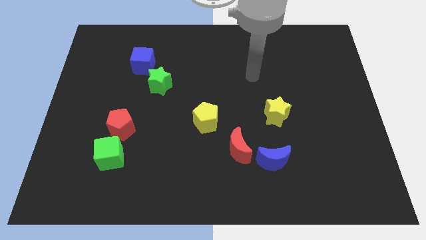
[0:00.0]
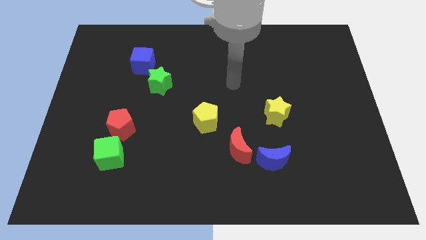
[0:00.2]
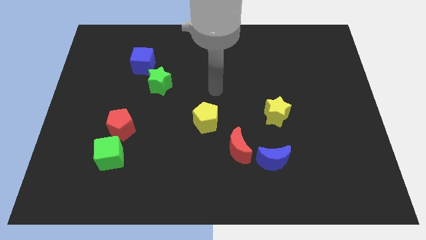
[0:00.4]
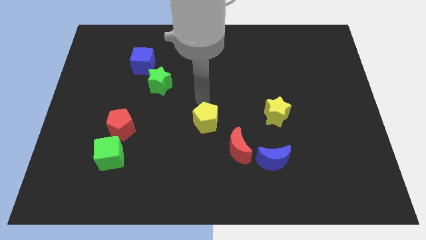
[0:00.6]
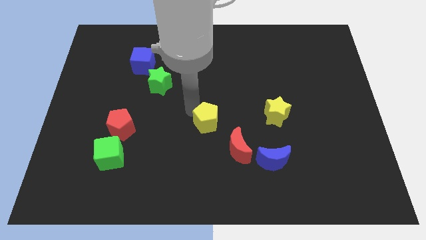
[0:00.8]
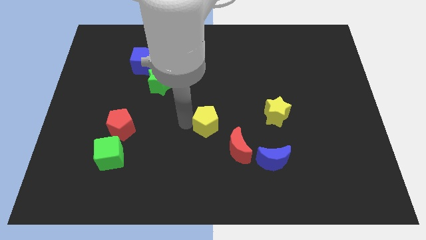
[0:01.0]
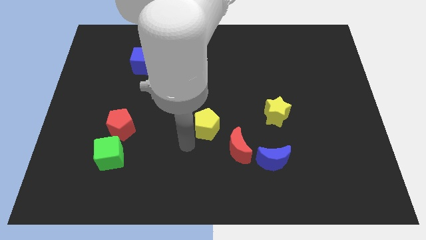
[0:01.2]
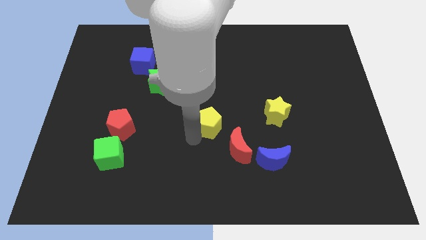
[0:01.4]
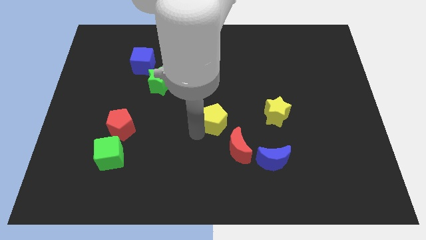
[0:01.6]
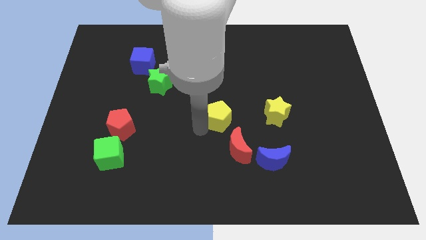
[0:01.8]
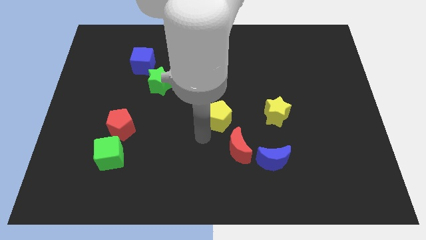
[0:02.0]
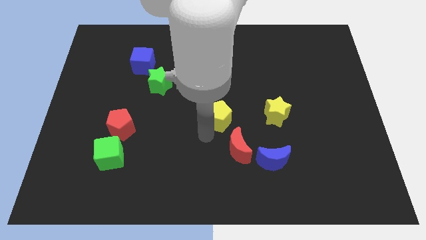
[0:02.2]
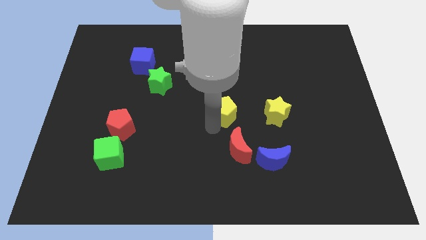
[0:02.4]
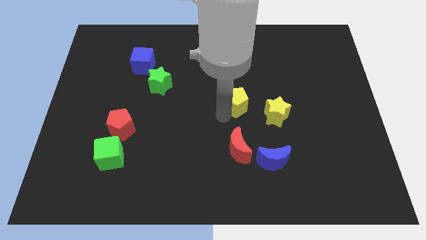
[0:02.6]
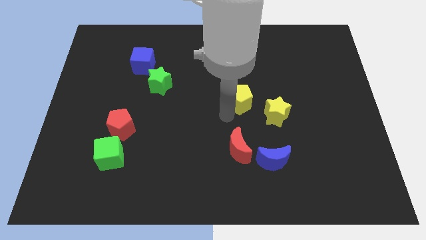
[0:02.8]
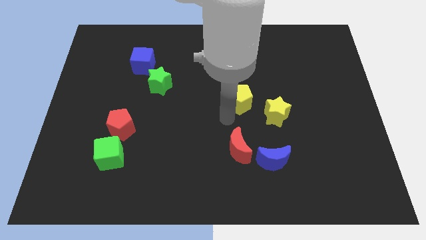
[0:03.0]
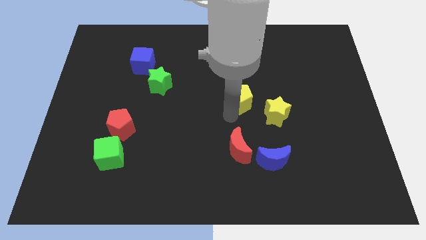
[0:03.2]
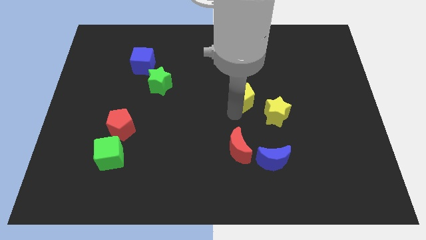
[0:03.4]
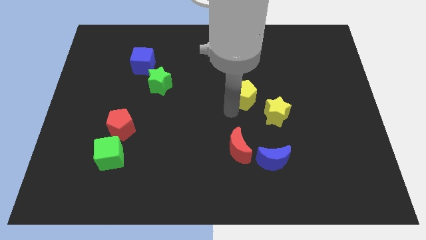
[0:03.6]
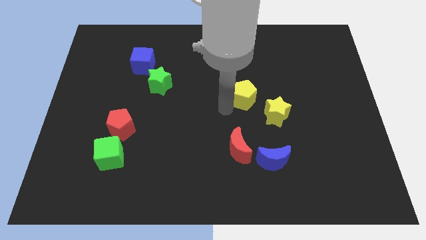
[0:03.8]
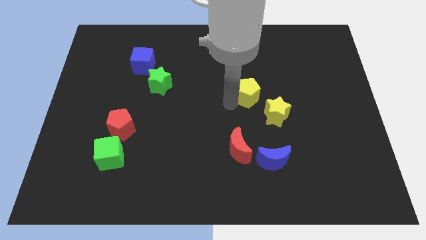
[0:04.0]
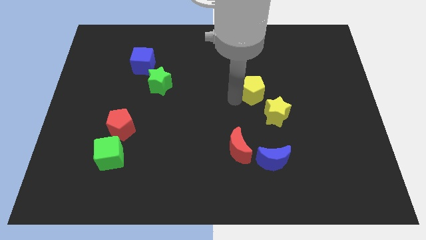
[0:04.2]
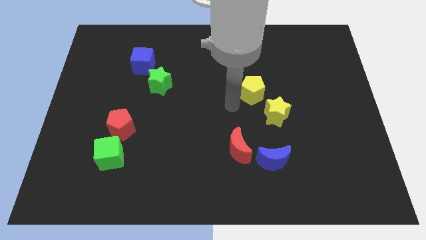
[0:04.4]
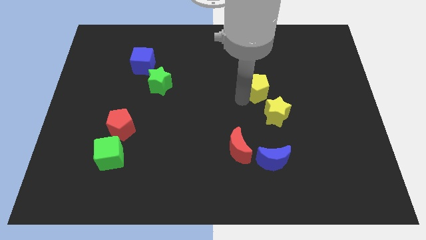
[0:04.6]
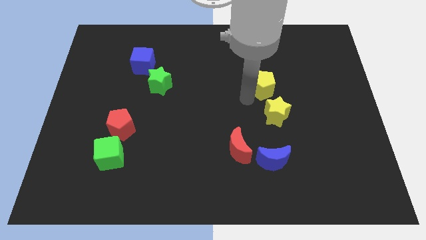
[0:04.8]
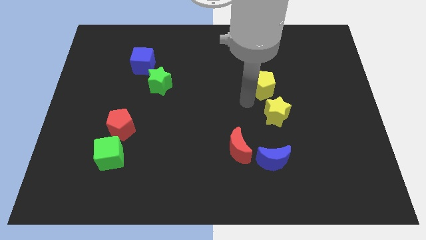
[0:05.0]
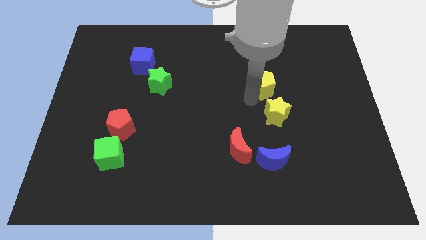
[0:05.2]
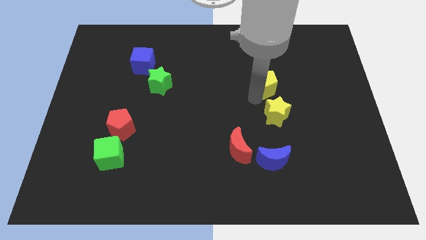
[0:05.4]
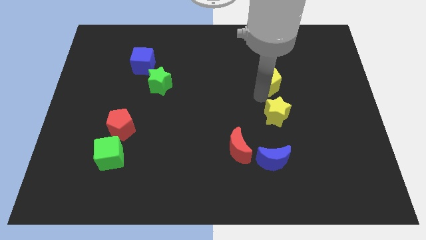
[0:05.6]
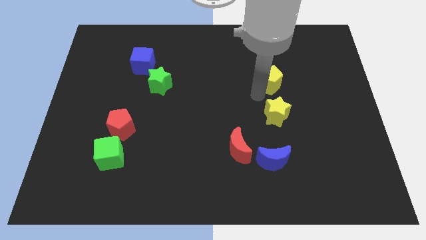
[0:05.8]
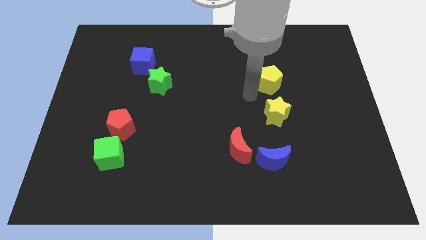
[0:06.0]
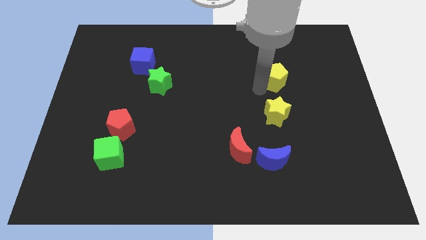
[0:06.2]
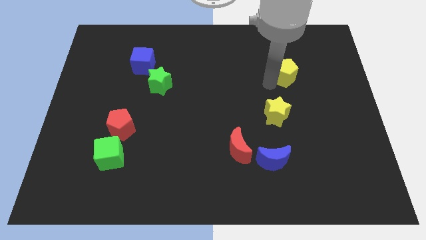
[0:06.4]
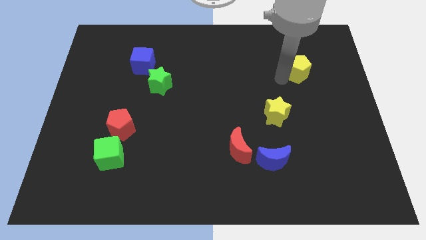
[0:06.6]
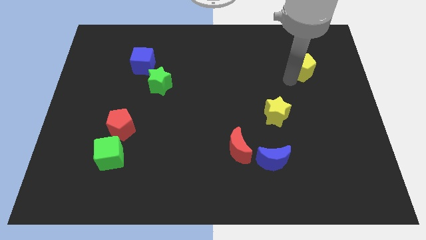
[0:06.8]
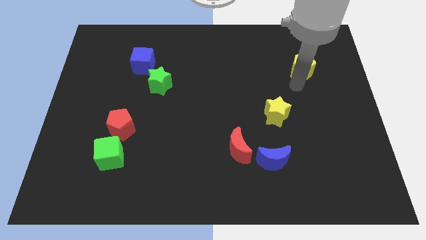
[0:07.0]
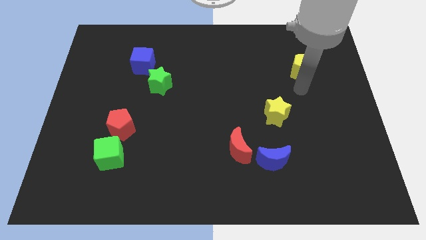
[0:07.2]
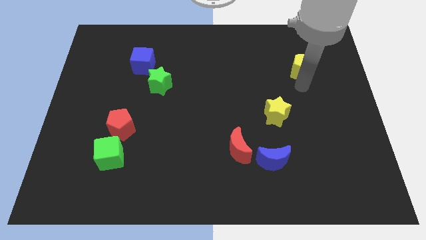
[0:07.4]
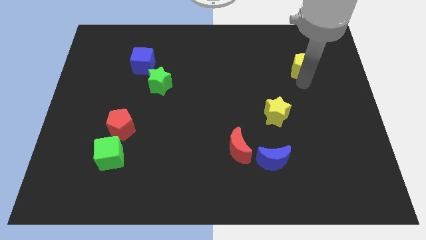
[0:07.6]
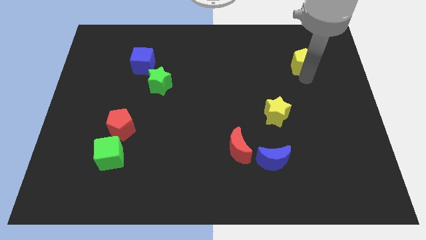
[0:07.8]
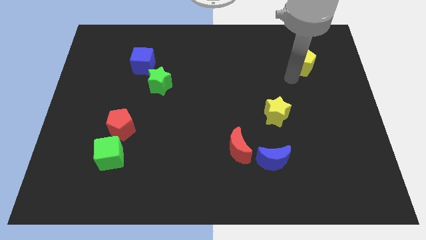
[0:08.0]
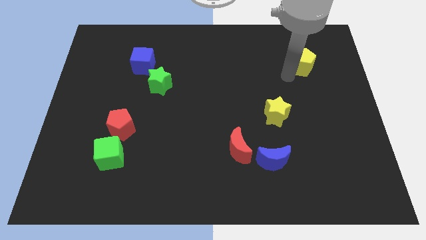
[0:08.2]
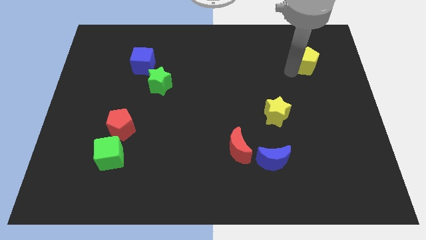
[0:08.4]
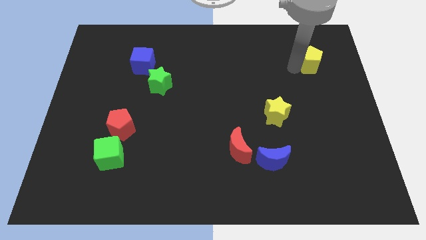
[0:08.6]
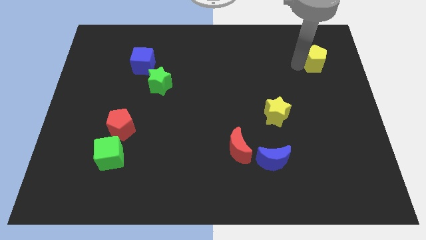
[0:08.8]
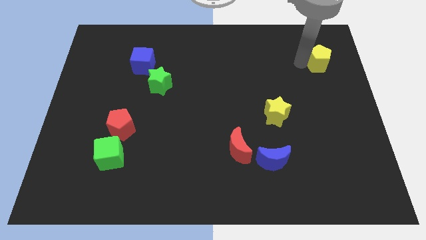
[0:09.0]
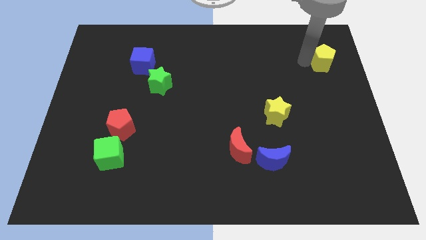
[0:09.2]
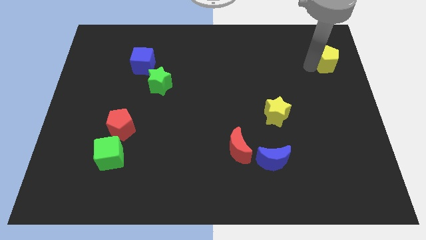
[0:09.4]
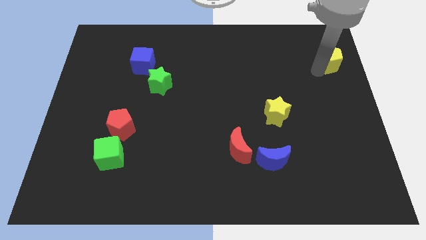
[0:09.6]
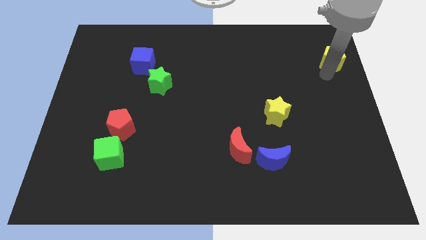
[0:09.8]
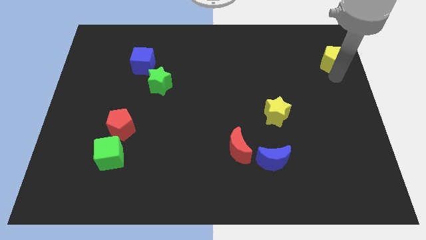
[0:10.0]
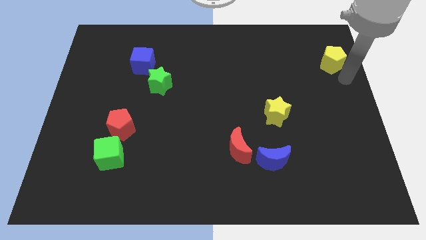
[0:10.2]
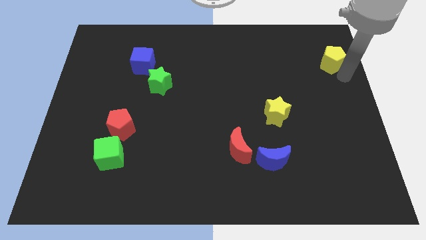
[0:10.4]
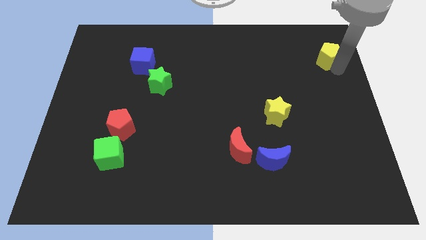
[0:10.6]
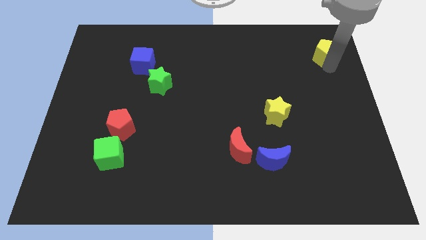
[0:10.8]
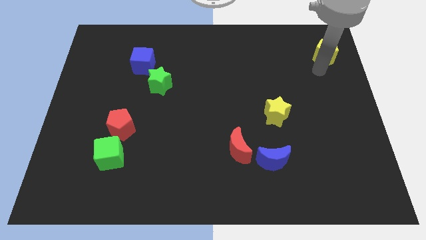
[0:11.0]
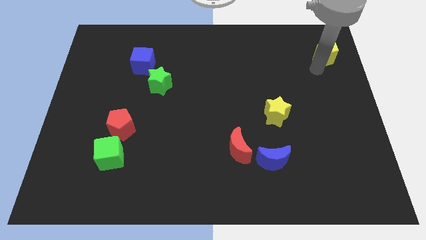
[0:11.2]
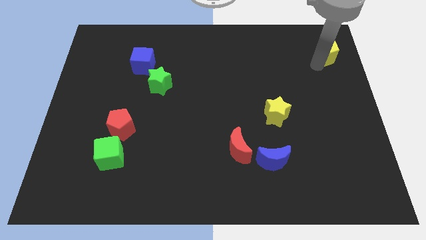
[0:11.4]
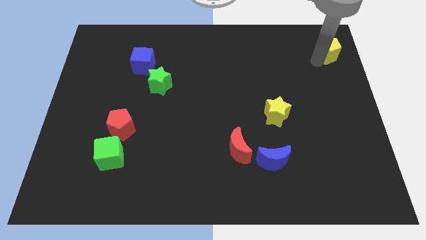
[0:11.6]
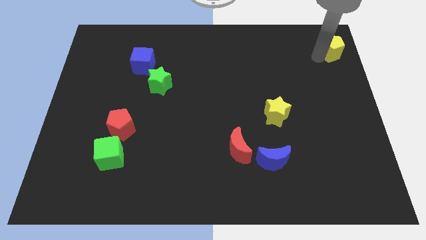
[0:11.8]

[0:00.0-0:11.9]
push the yellow pentagon to the upper right corner

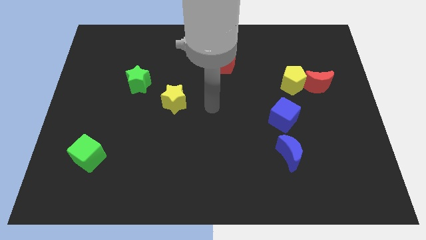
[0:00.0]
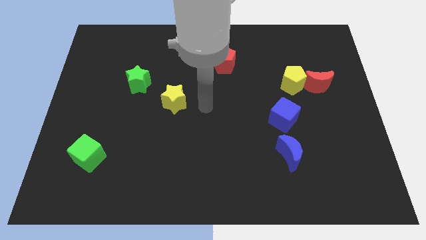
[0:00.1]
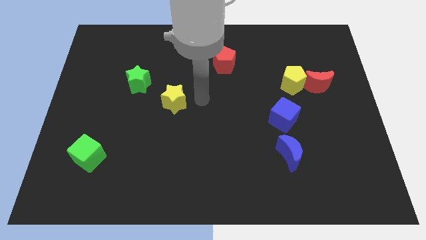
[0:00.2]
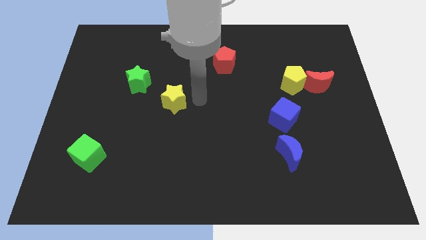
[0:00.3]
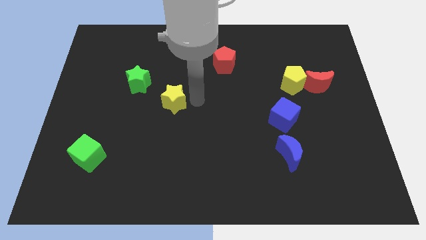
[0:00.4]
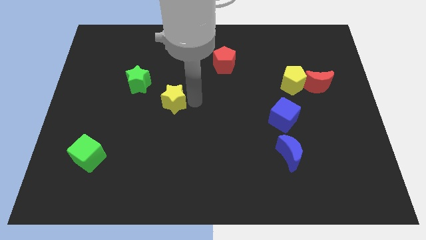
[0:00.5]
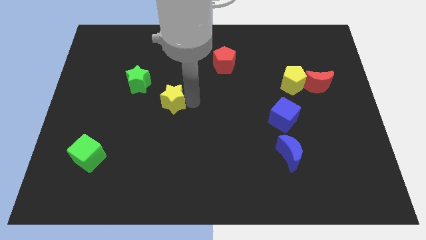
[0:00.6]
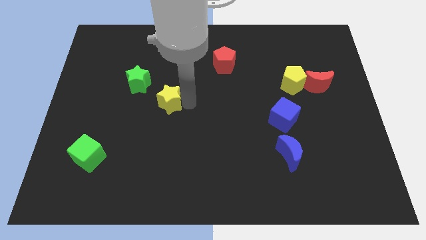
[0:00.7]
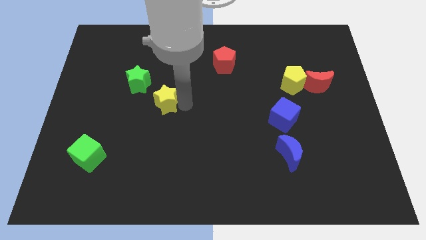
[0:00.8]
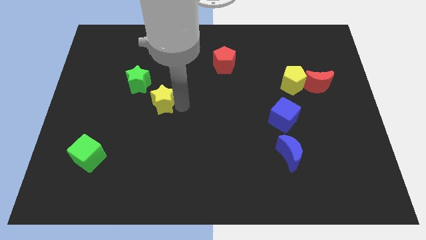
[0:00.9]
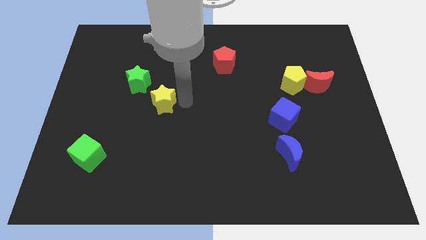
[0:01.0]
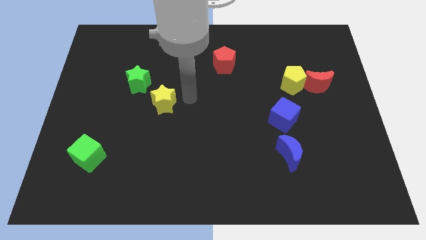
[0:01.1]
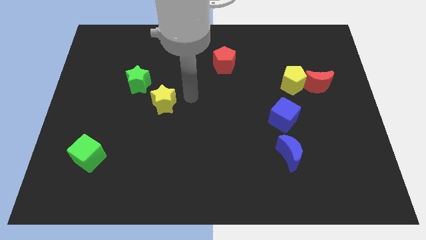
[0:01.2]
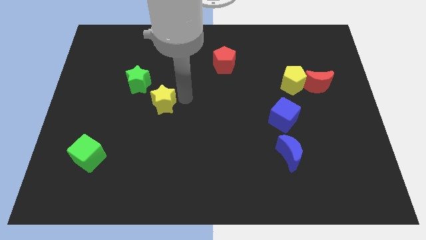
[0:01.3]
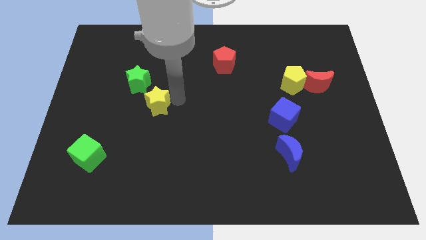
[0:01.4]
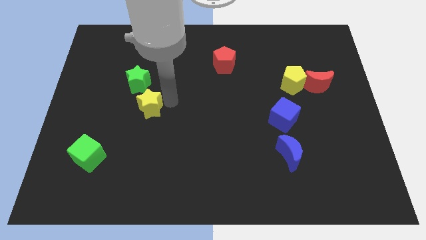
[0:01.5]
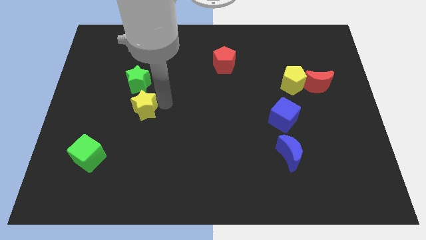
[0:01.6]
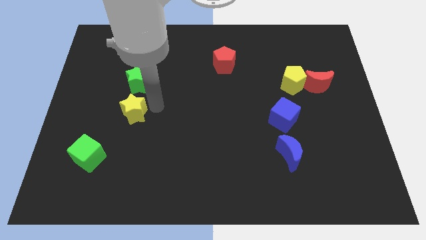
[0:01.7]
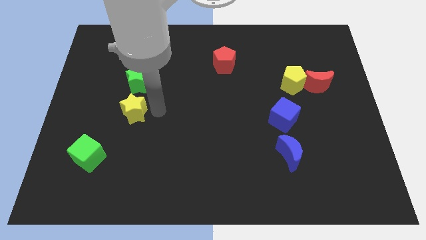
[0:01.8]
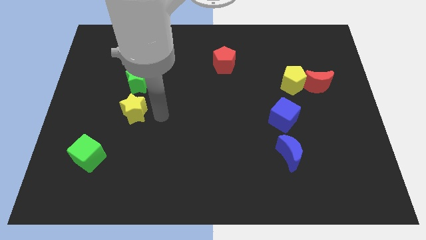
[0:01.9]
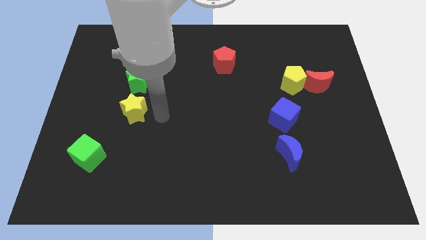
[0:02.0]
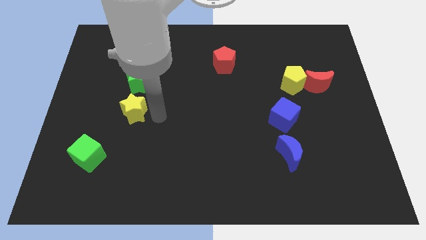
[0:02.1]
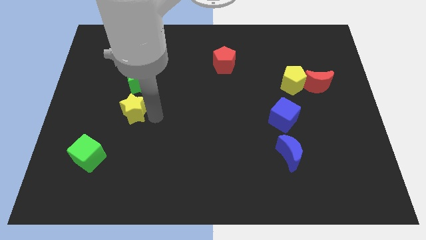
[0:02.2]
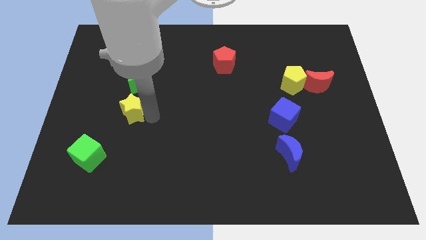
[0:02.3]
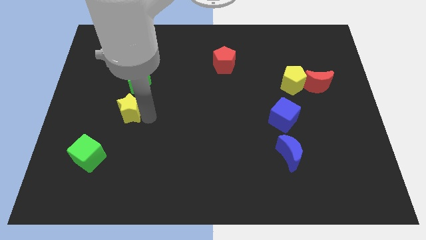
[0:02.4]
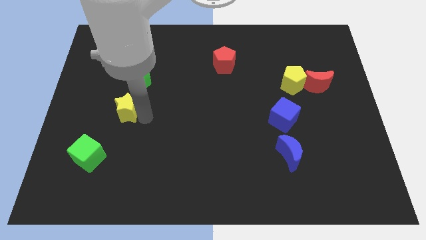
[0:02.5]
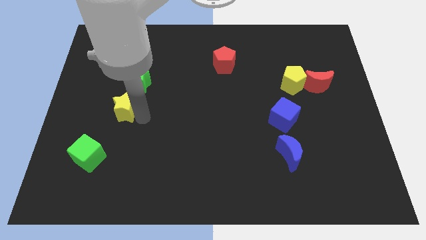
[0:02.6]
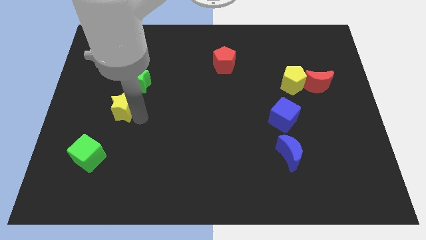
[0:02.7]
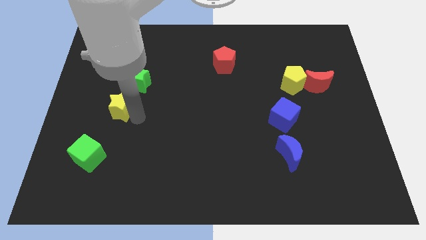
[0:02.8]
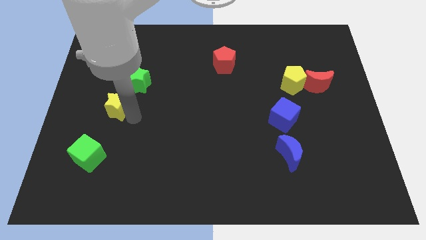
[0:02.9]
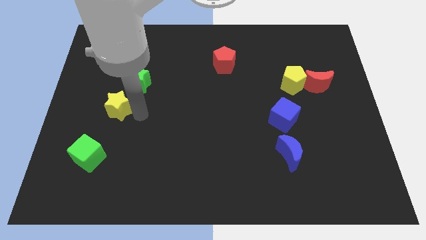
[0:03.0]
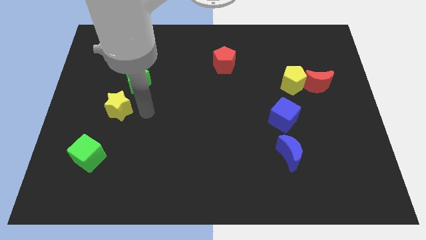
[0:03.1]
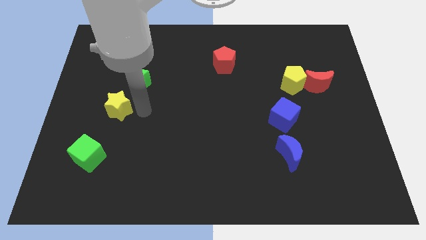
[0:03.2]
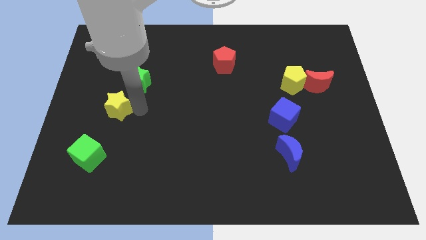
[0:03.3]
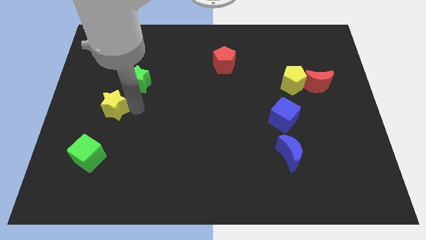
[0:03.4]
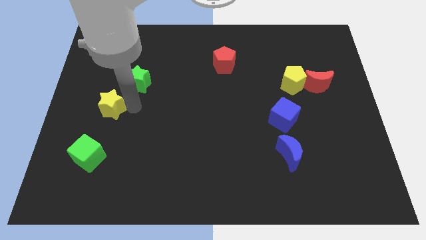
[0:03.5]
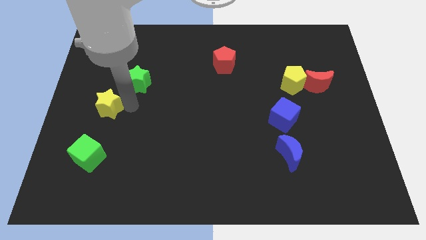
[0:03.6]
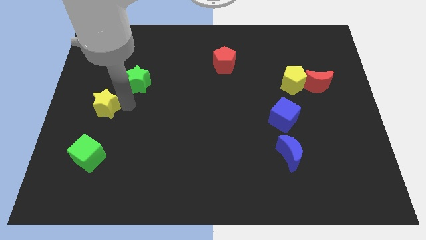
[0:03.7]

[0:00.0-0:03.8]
move the yellow star to the left side of the board
